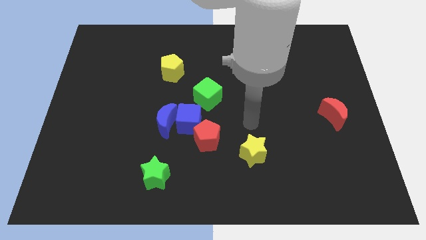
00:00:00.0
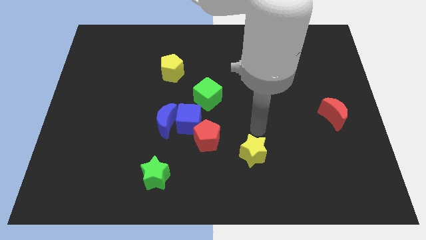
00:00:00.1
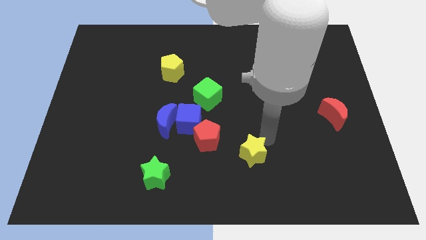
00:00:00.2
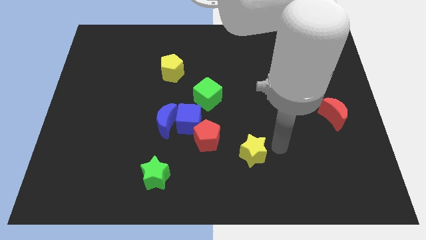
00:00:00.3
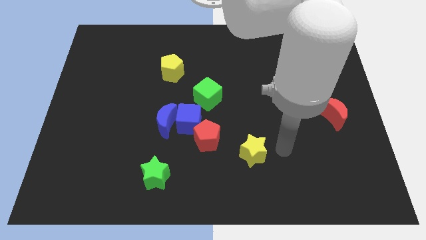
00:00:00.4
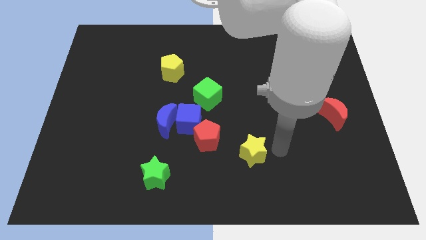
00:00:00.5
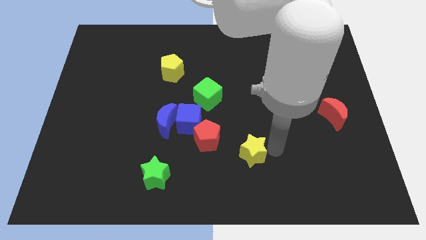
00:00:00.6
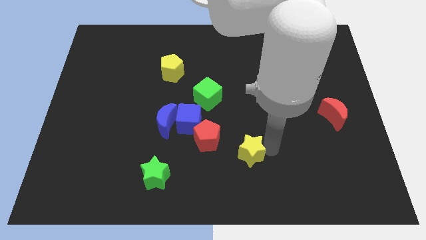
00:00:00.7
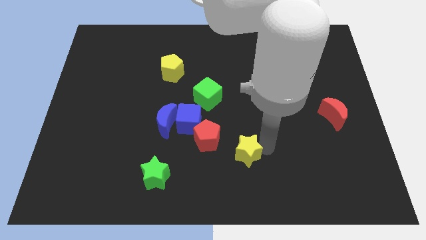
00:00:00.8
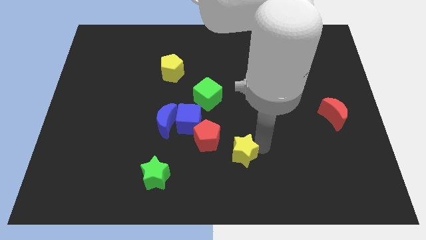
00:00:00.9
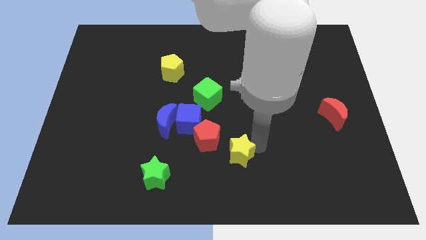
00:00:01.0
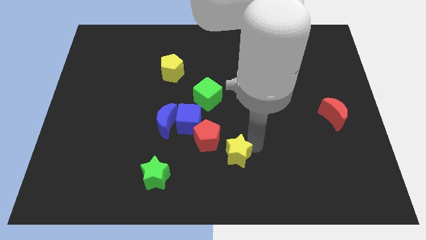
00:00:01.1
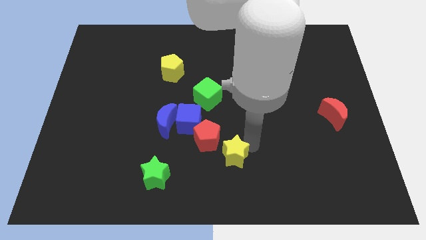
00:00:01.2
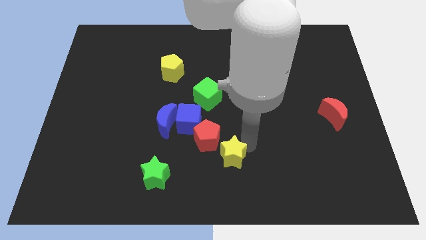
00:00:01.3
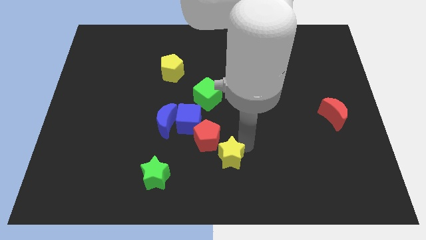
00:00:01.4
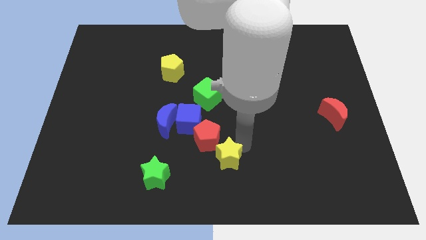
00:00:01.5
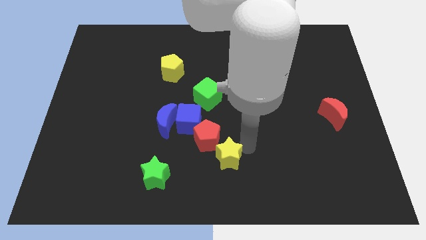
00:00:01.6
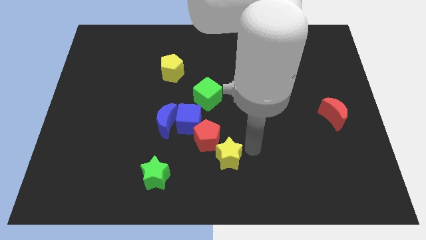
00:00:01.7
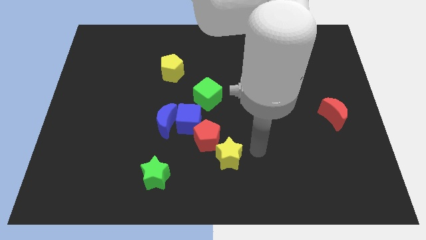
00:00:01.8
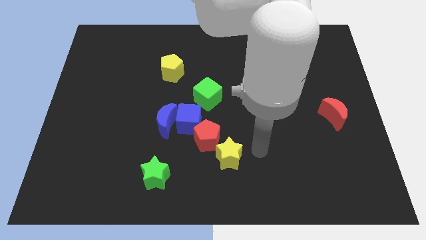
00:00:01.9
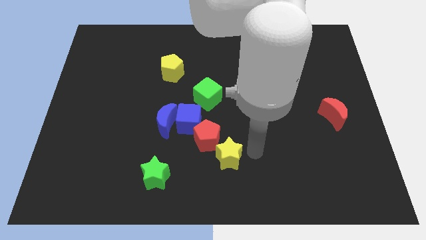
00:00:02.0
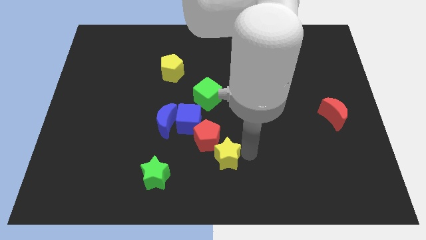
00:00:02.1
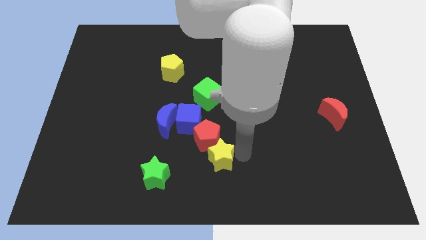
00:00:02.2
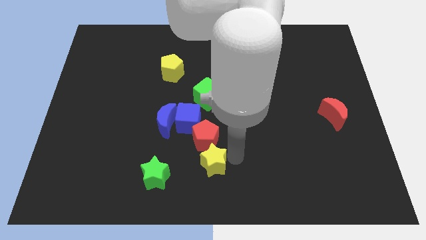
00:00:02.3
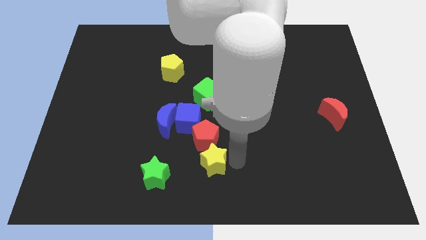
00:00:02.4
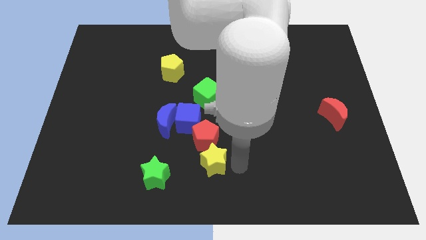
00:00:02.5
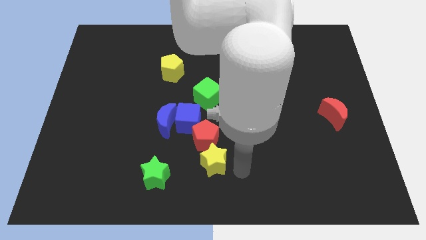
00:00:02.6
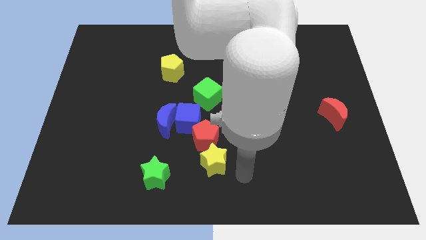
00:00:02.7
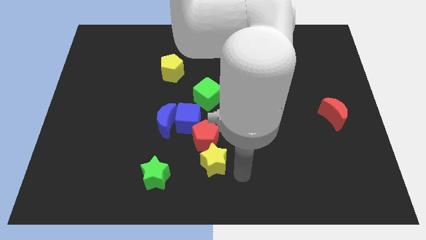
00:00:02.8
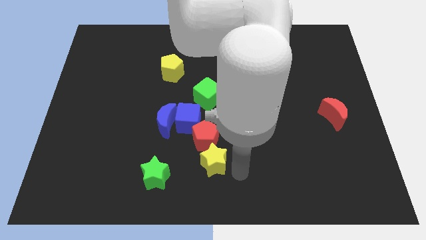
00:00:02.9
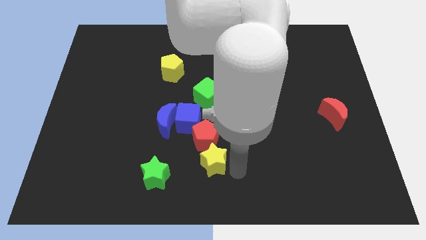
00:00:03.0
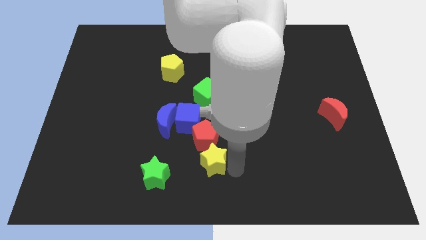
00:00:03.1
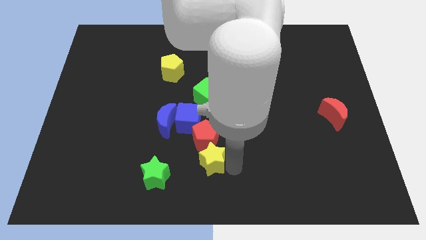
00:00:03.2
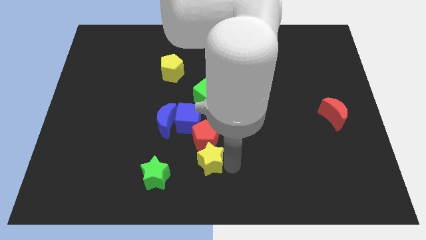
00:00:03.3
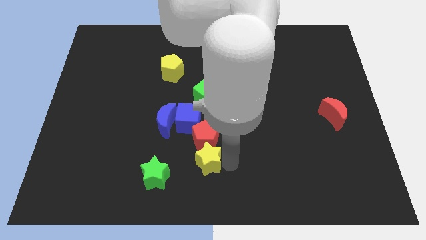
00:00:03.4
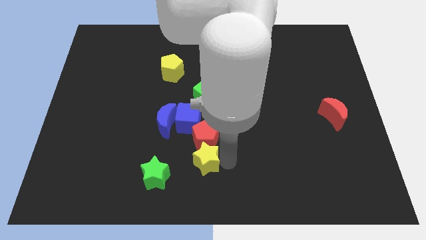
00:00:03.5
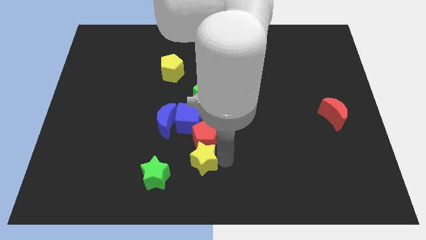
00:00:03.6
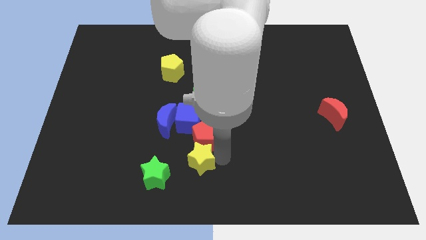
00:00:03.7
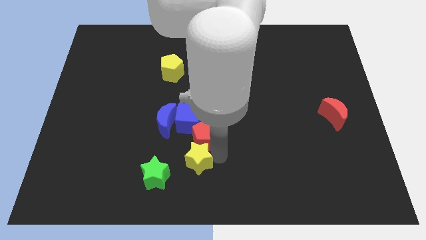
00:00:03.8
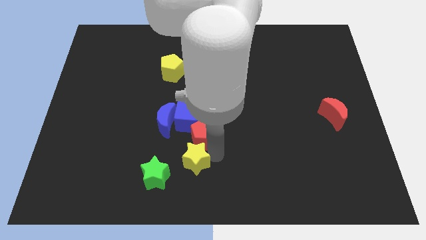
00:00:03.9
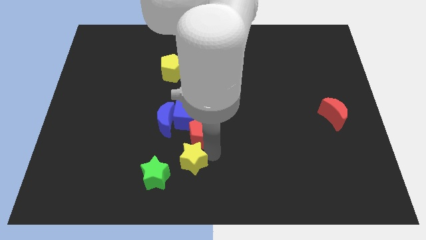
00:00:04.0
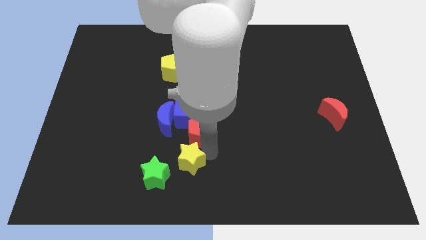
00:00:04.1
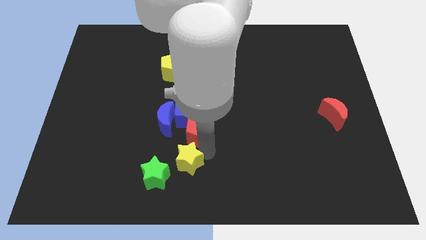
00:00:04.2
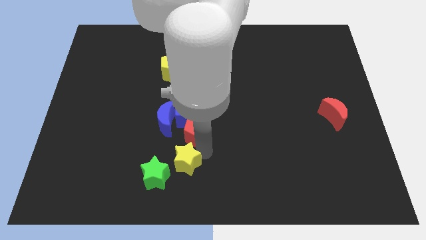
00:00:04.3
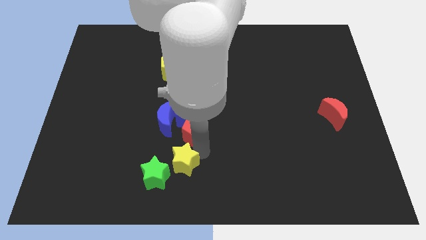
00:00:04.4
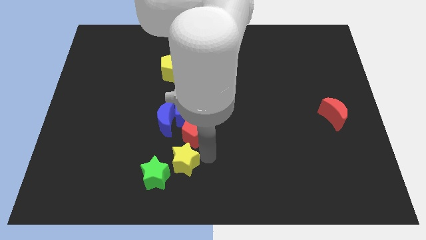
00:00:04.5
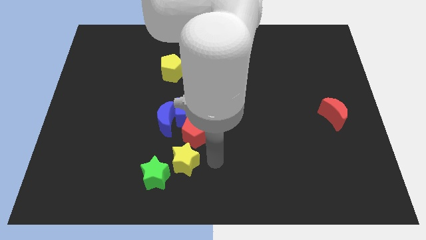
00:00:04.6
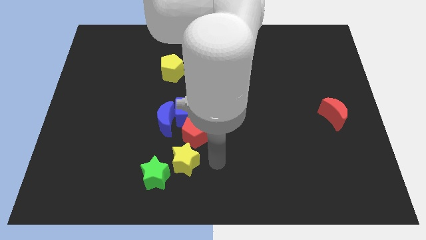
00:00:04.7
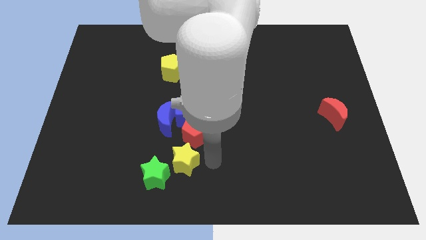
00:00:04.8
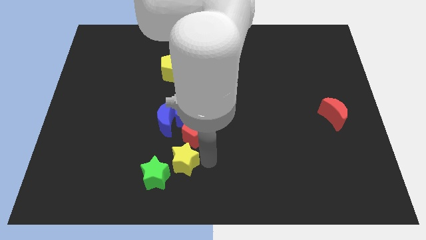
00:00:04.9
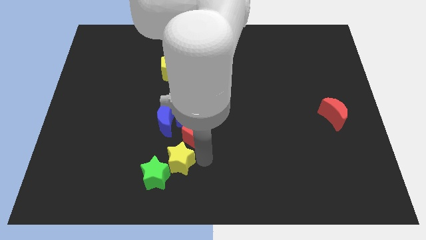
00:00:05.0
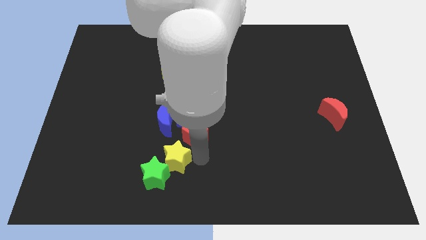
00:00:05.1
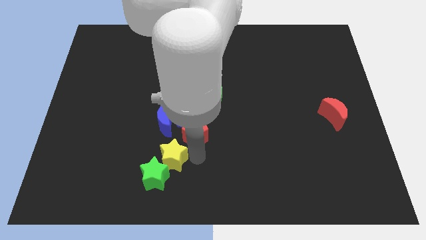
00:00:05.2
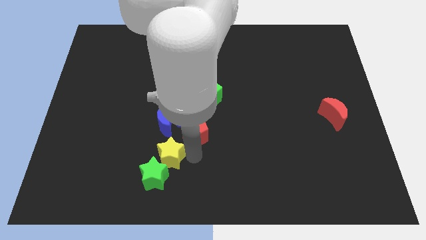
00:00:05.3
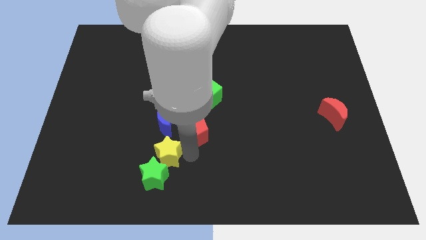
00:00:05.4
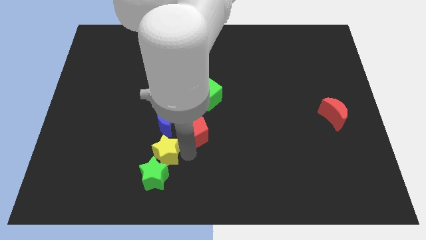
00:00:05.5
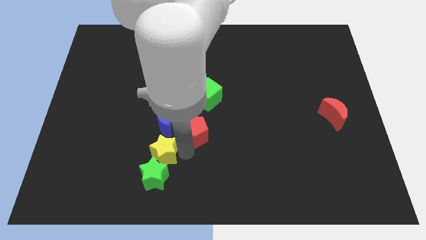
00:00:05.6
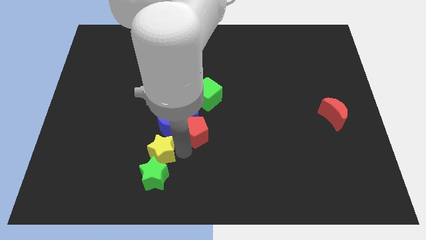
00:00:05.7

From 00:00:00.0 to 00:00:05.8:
slide the yellow star left

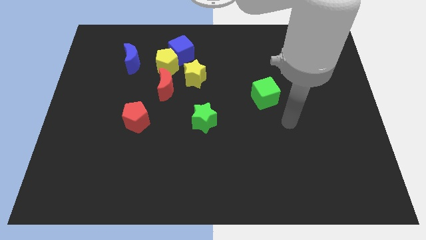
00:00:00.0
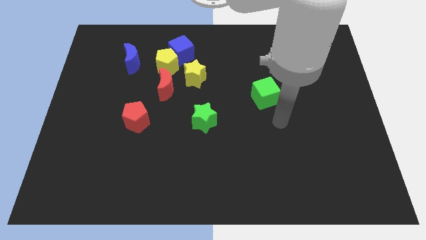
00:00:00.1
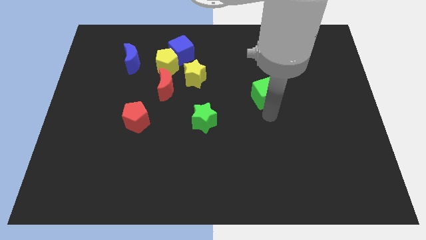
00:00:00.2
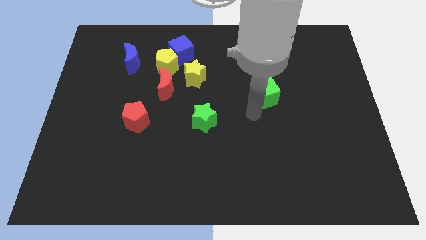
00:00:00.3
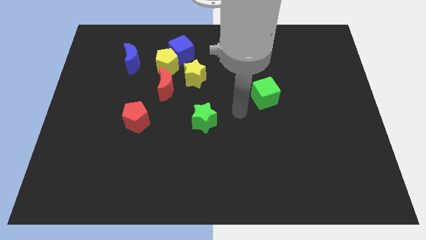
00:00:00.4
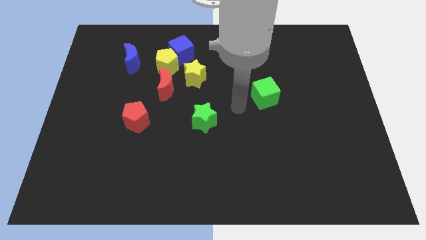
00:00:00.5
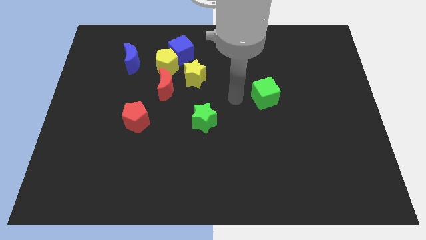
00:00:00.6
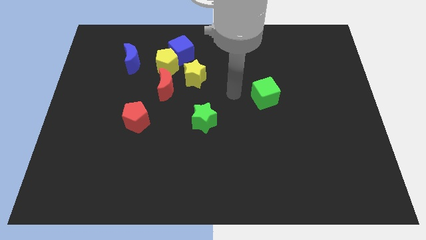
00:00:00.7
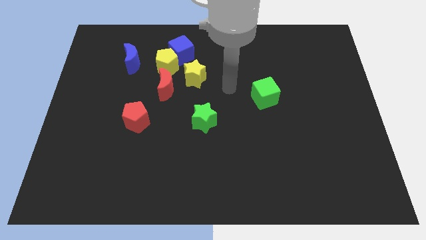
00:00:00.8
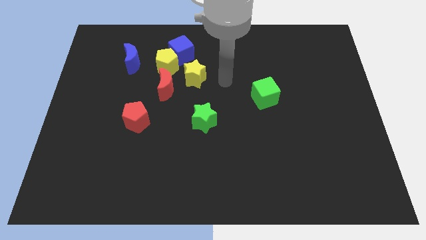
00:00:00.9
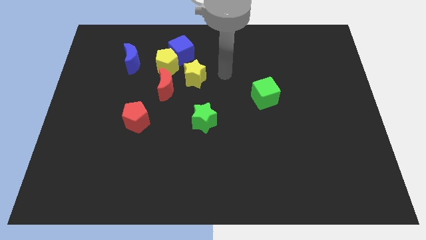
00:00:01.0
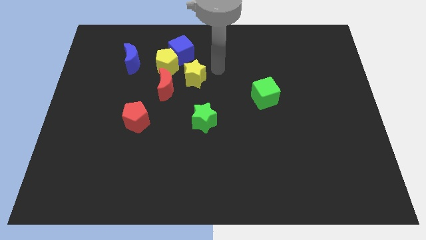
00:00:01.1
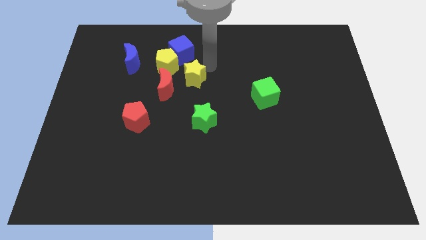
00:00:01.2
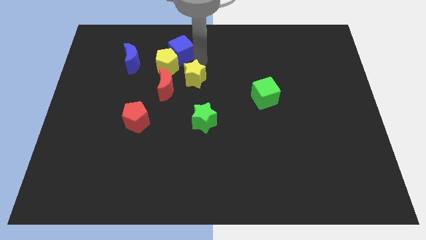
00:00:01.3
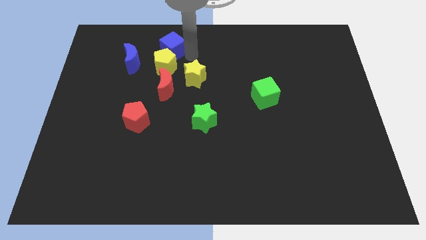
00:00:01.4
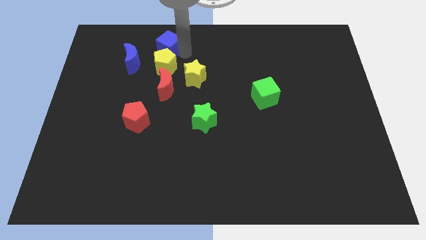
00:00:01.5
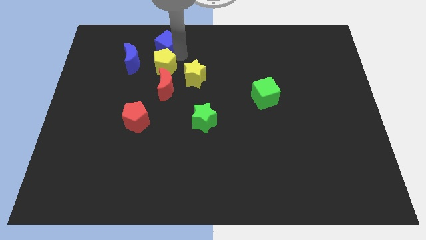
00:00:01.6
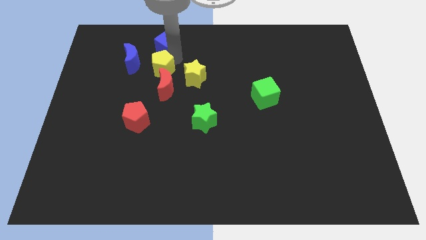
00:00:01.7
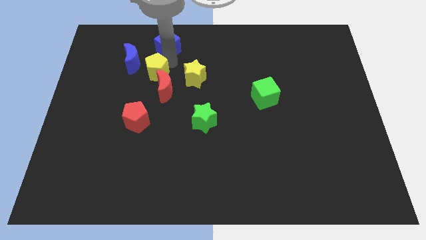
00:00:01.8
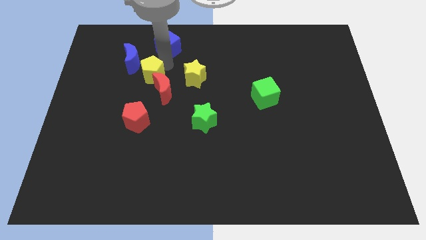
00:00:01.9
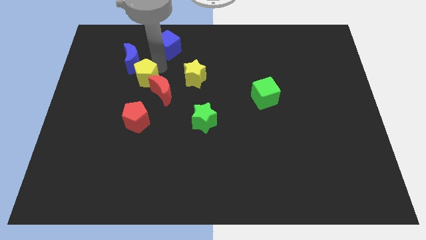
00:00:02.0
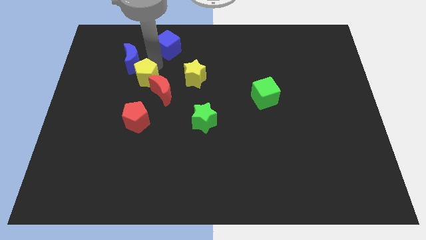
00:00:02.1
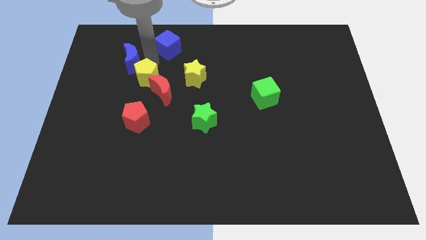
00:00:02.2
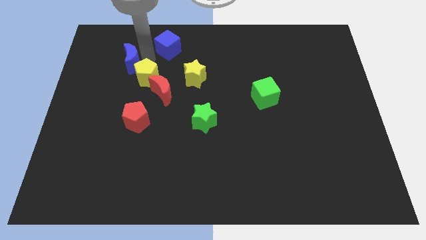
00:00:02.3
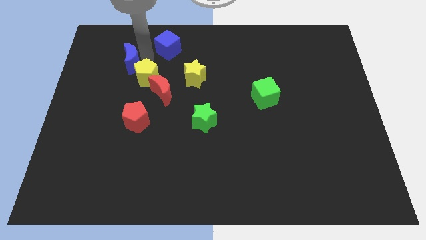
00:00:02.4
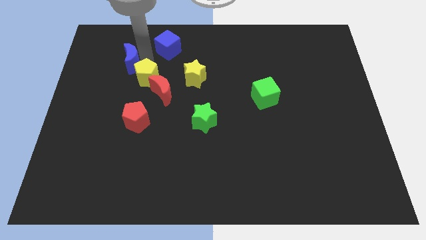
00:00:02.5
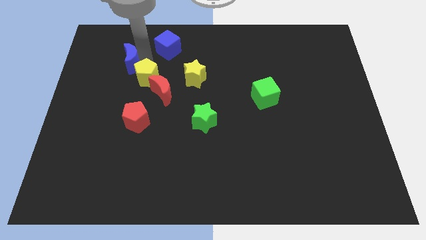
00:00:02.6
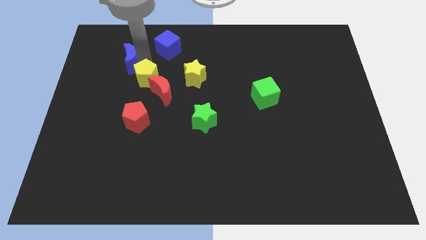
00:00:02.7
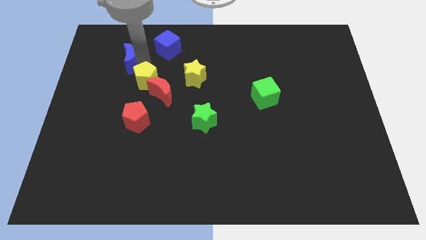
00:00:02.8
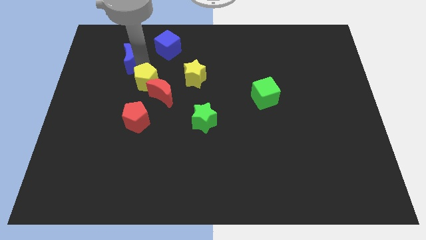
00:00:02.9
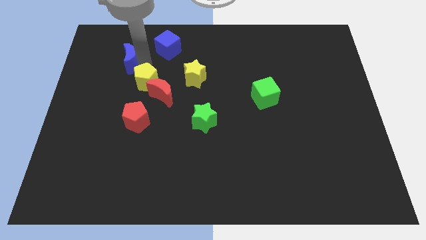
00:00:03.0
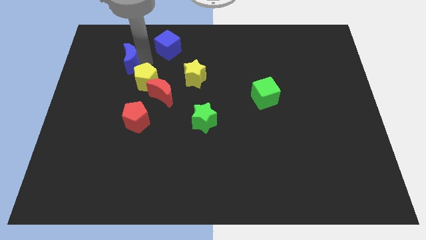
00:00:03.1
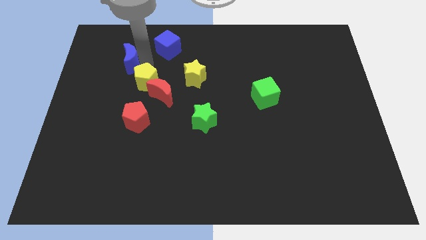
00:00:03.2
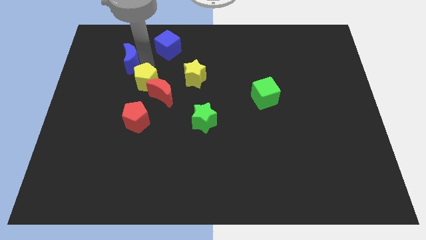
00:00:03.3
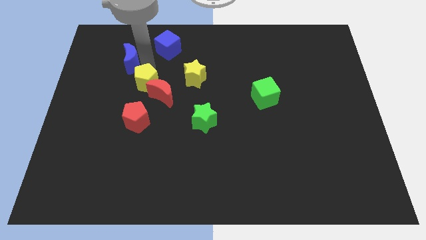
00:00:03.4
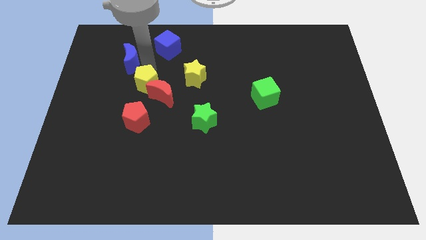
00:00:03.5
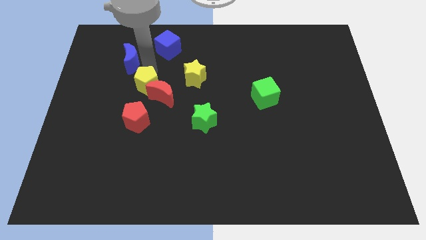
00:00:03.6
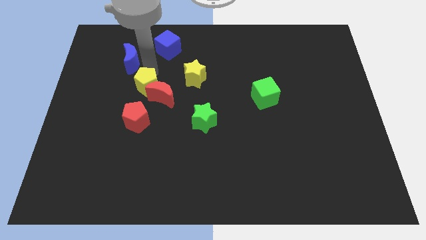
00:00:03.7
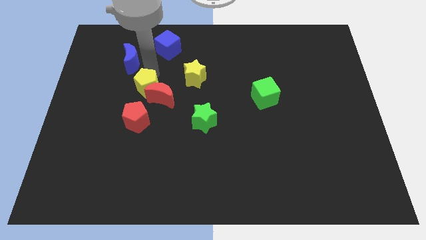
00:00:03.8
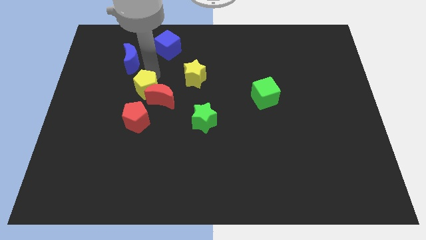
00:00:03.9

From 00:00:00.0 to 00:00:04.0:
move the yellow pentagon a bit down
